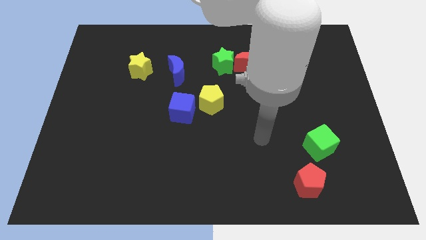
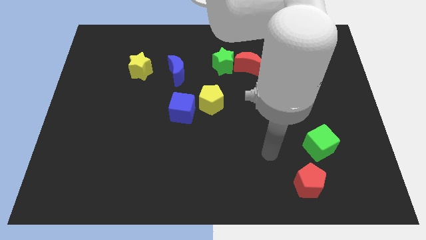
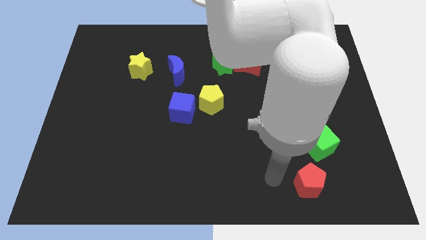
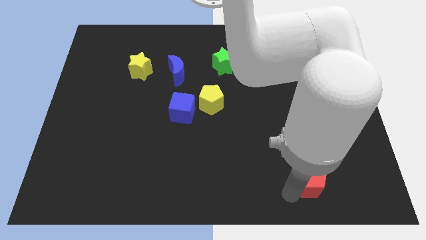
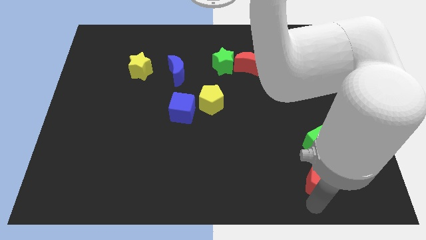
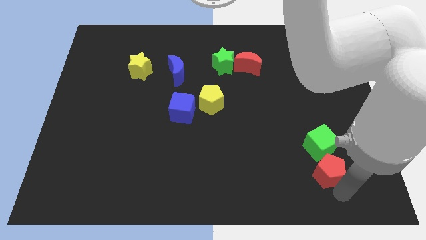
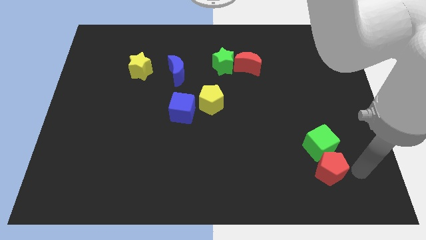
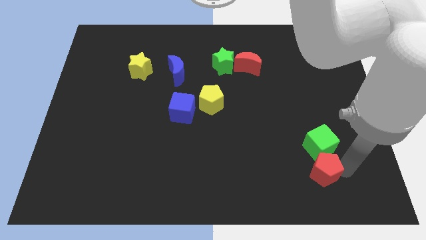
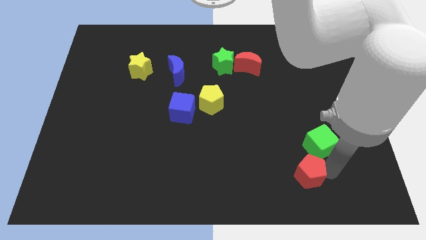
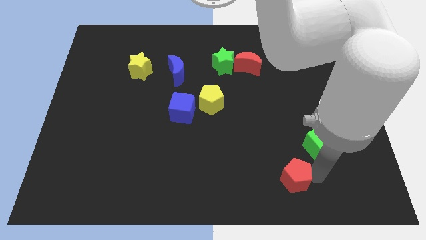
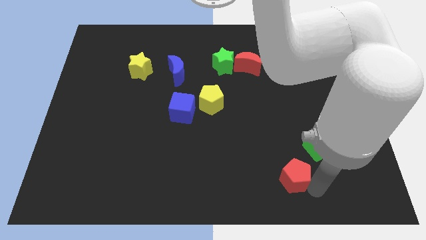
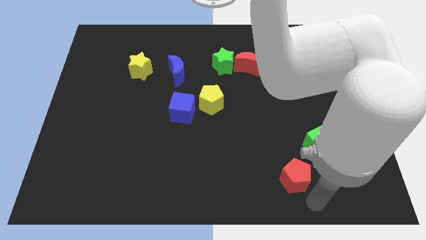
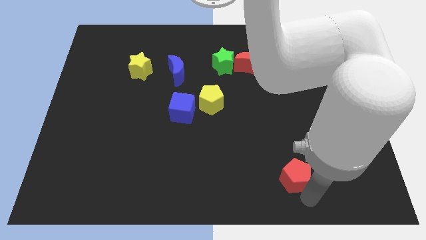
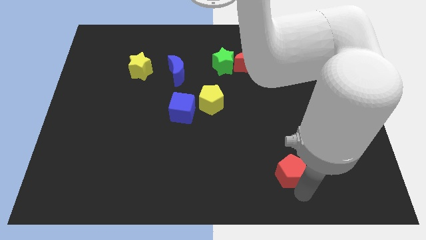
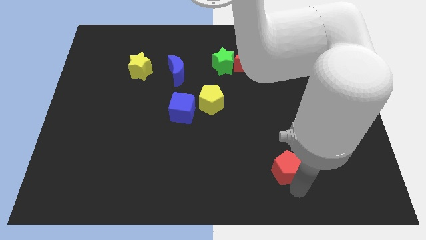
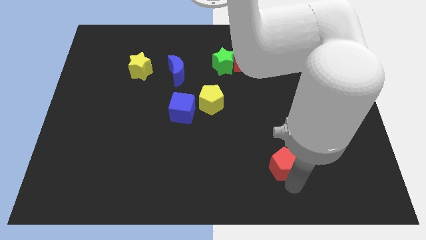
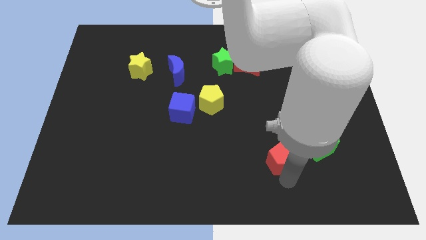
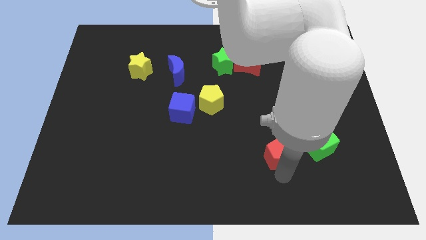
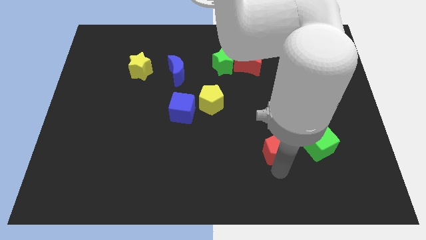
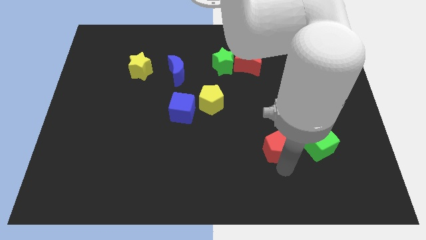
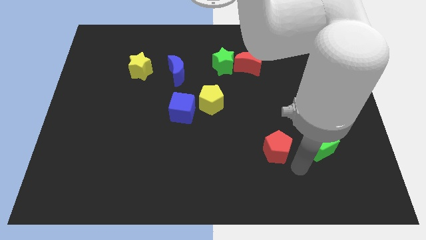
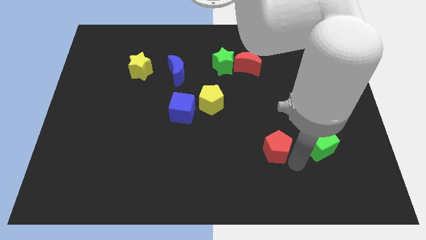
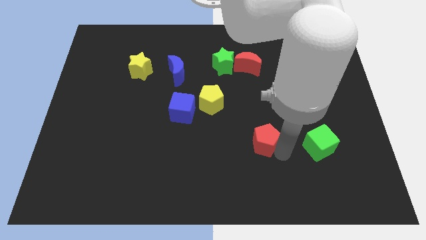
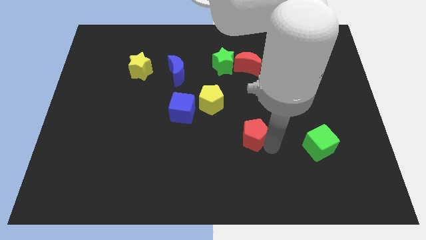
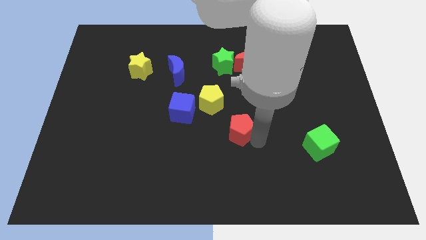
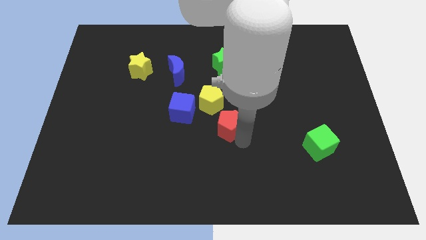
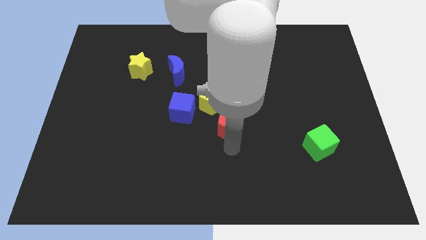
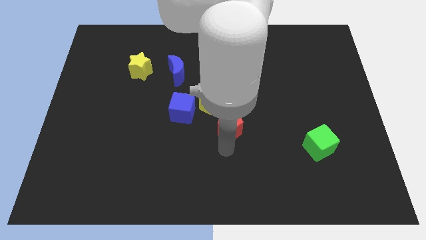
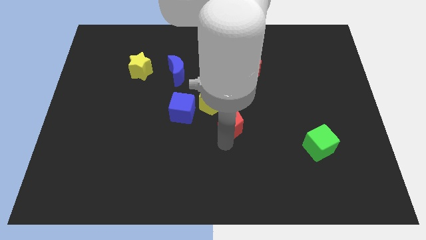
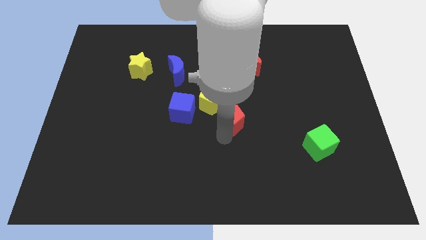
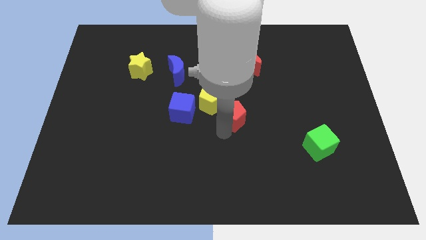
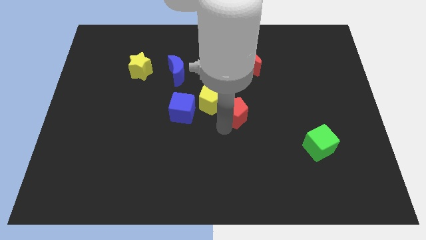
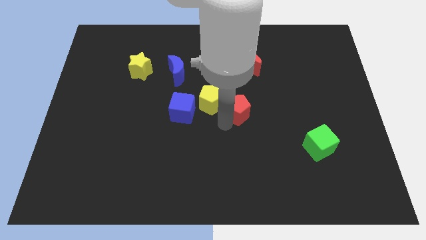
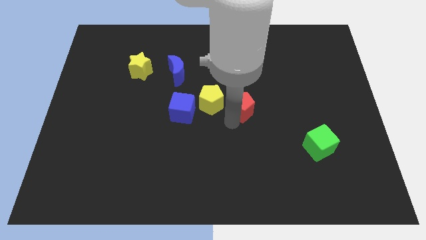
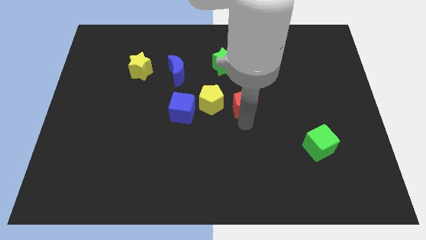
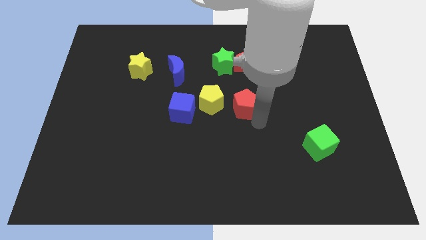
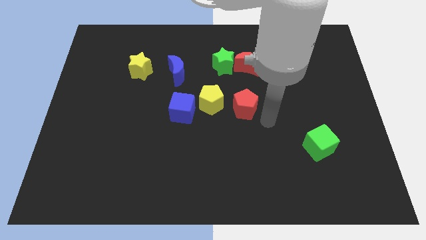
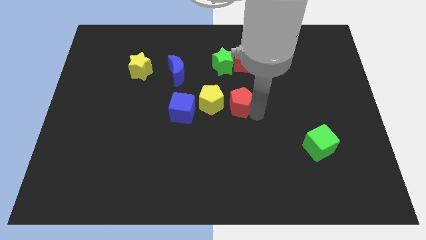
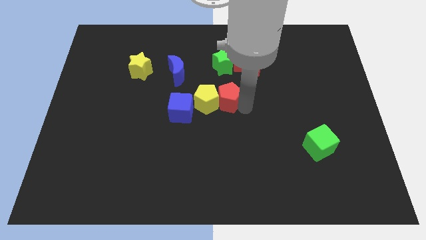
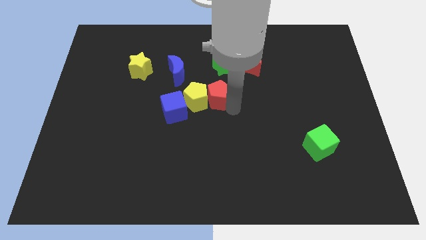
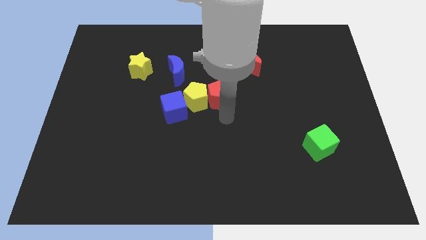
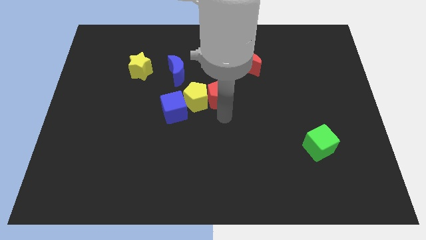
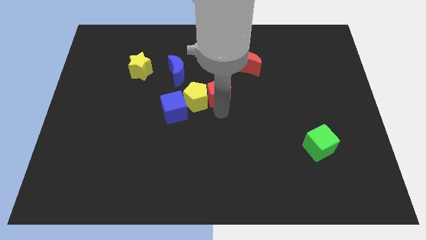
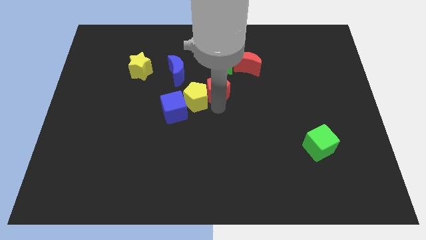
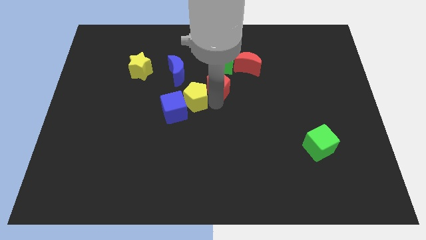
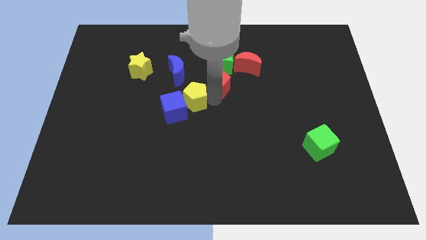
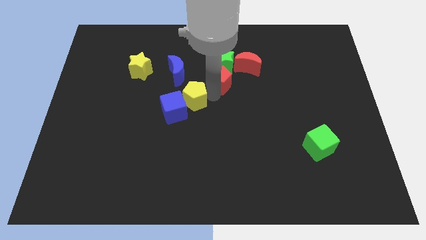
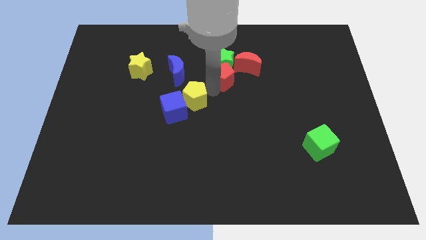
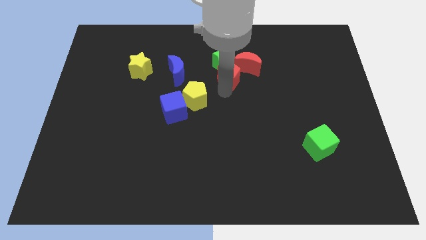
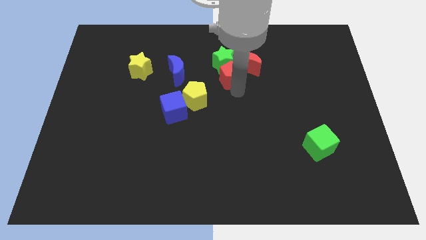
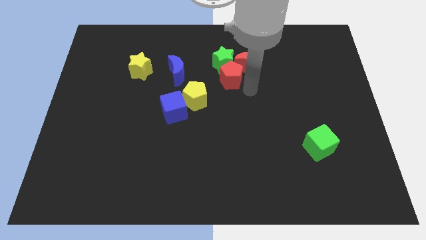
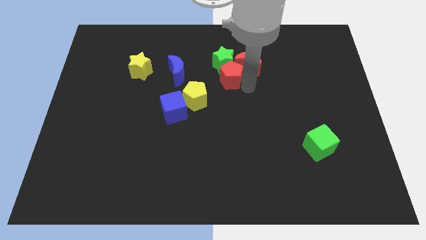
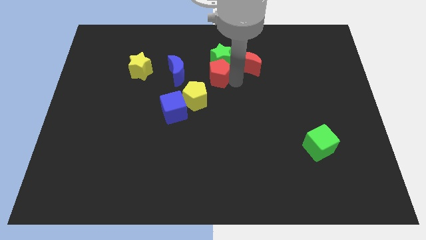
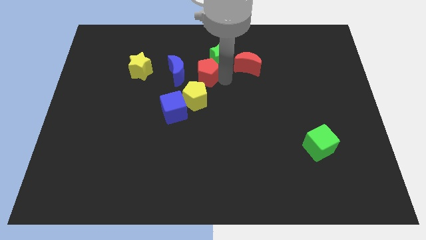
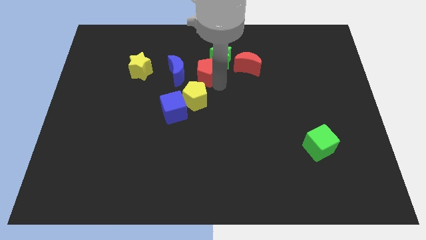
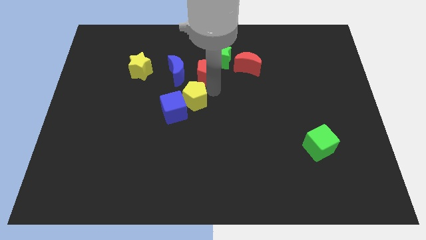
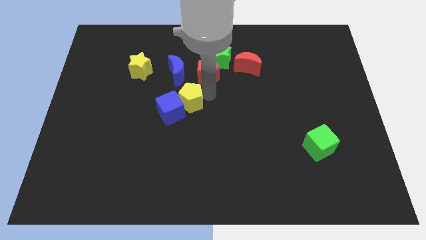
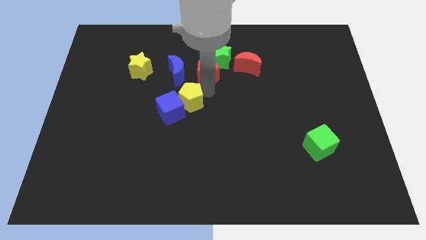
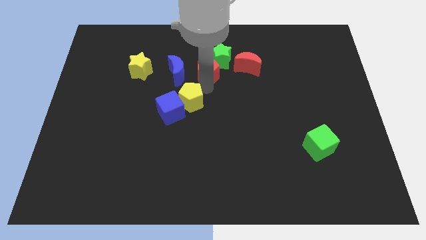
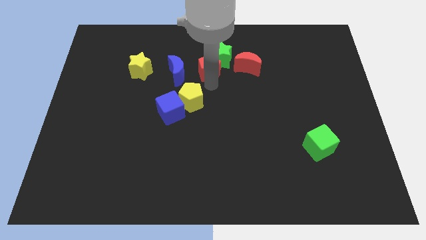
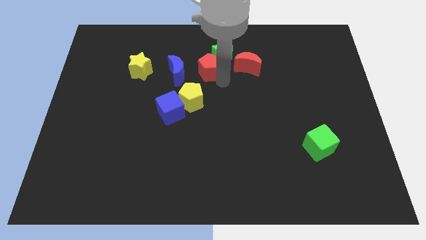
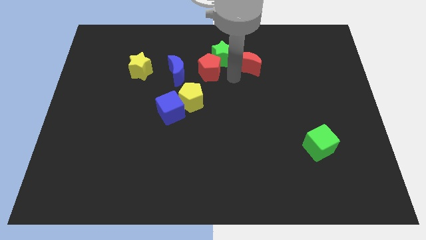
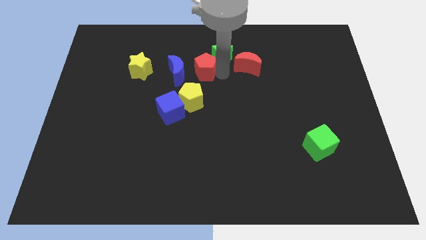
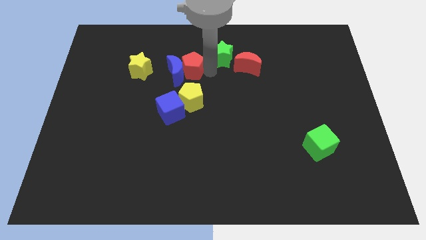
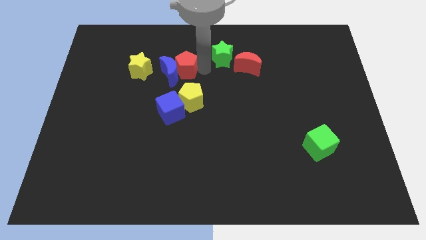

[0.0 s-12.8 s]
put the red pentagon above the blue cube
